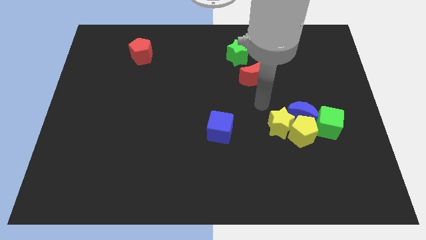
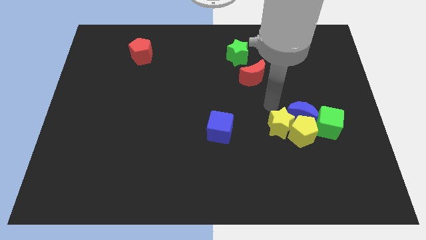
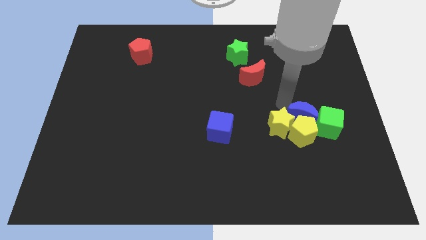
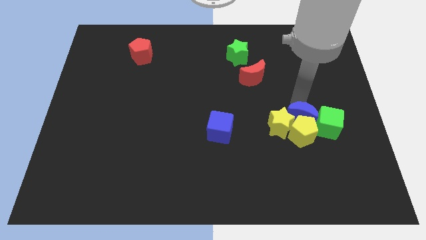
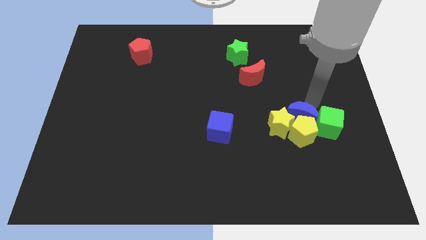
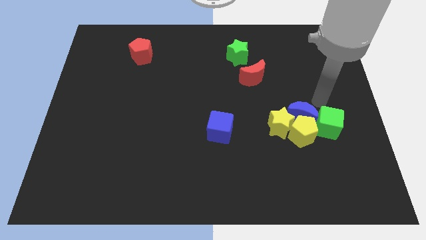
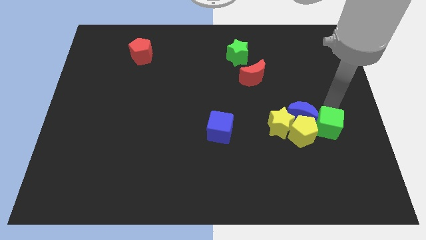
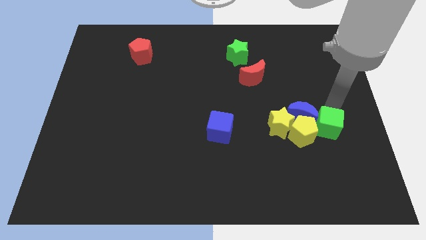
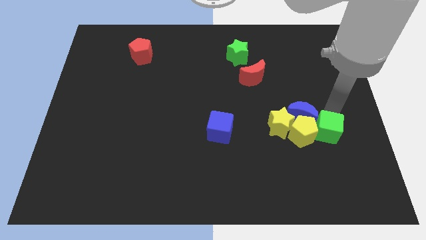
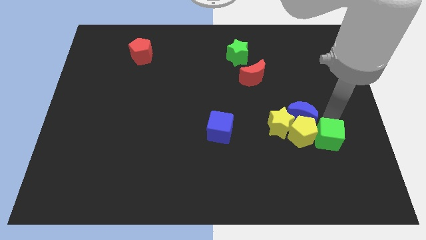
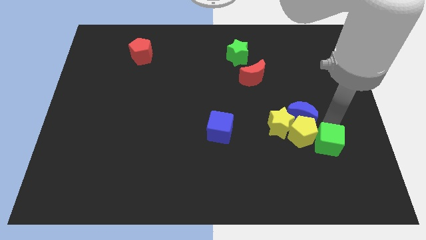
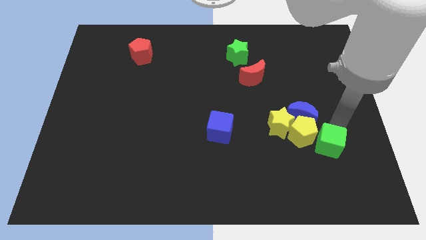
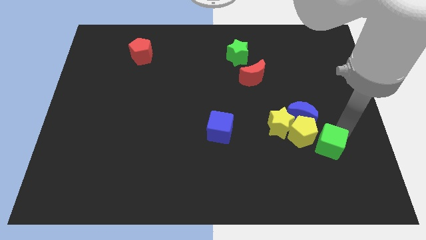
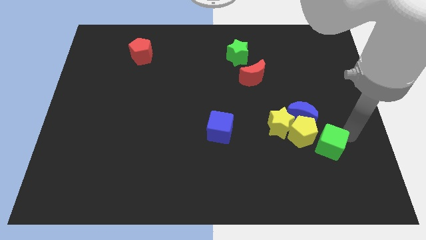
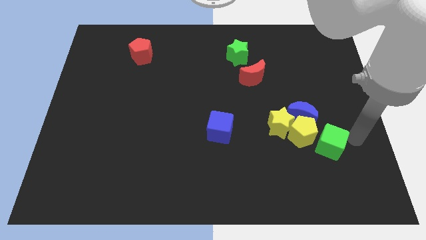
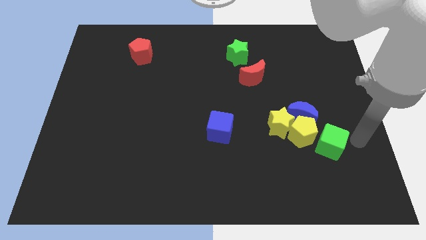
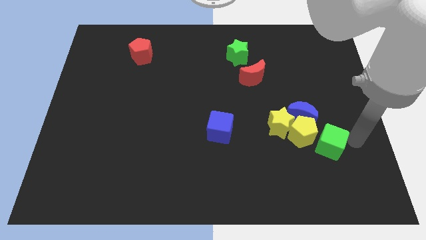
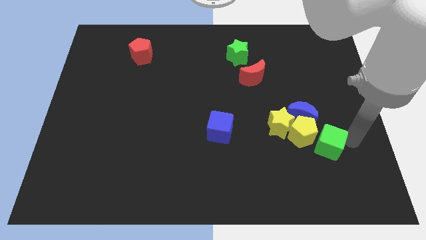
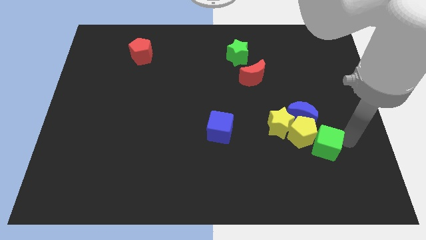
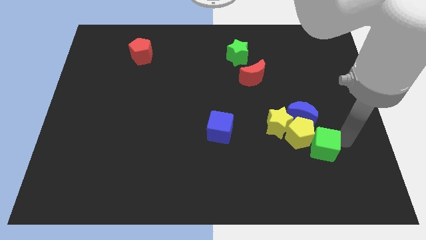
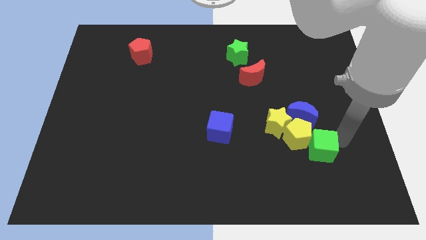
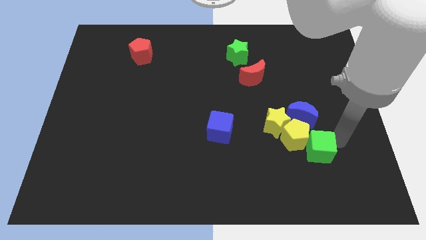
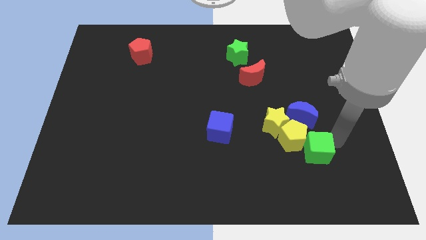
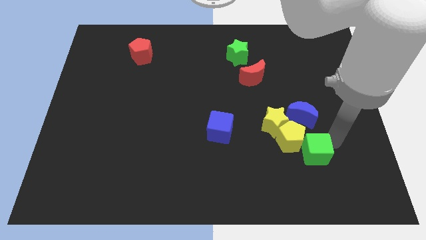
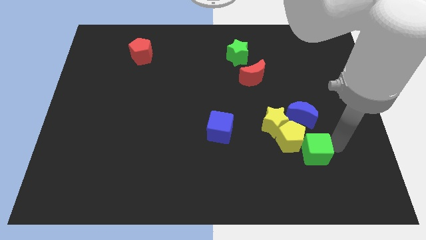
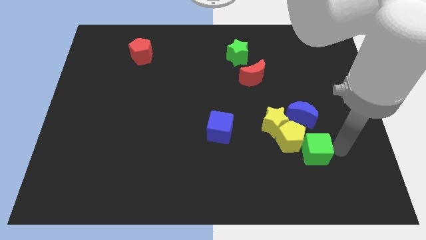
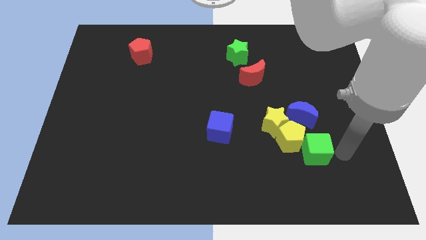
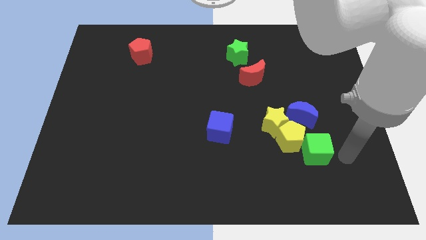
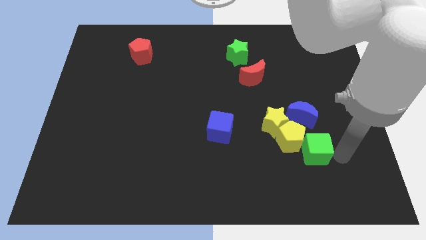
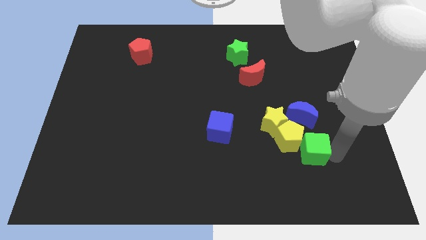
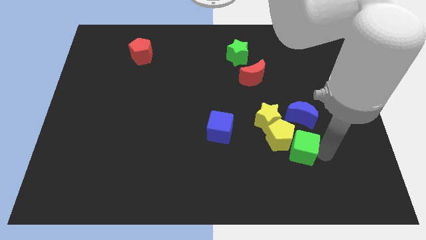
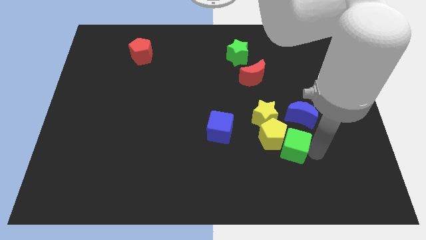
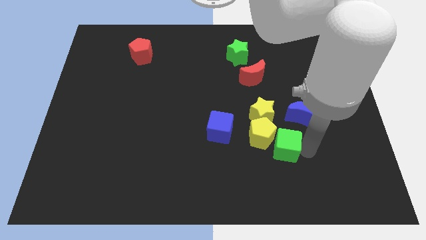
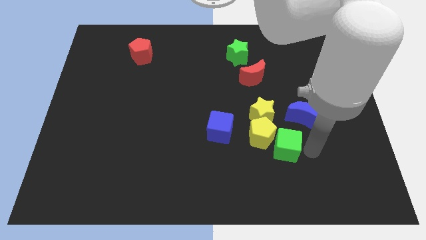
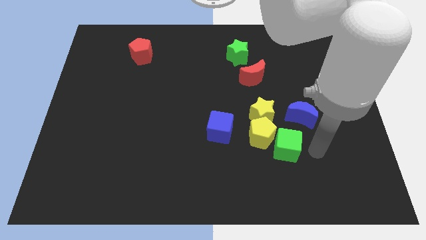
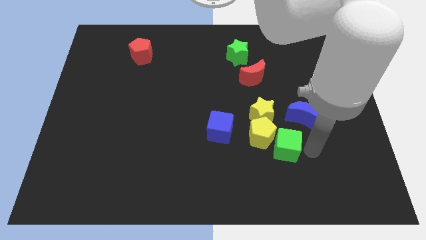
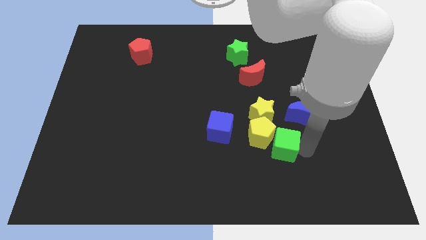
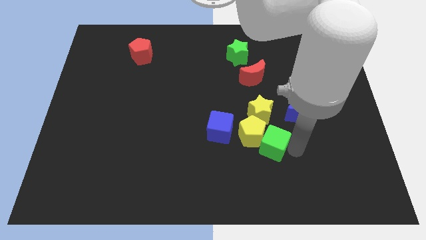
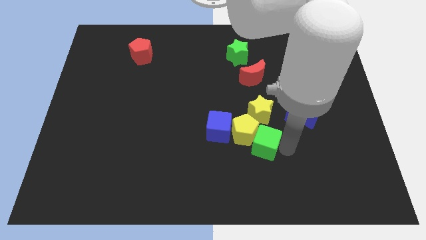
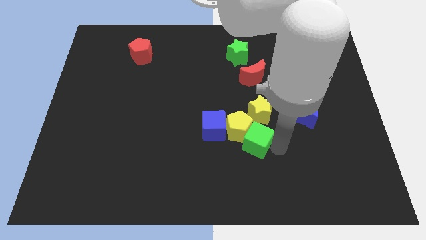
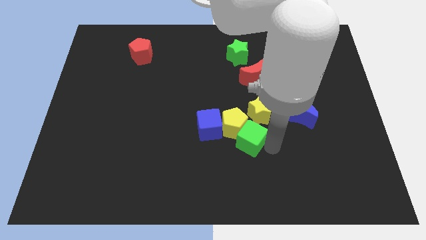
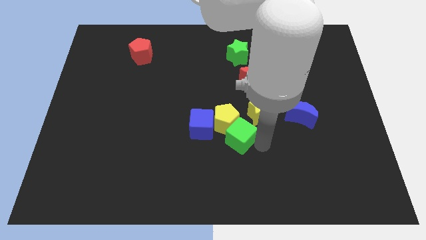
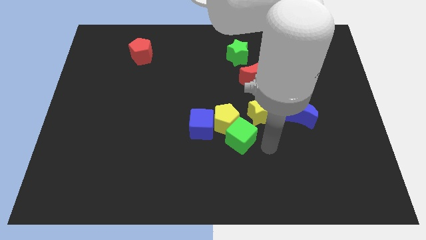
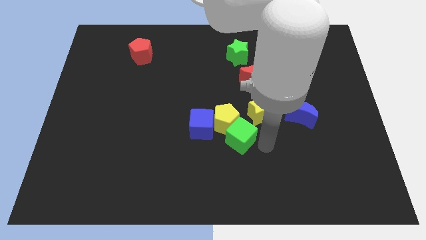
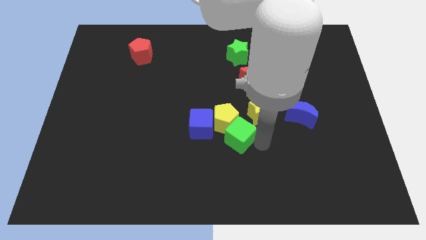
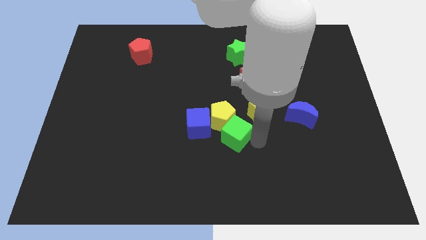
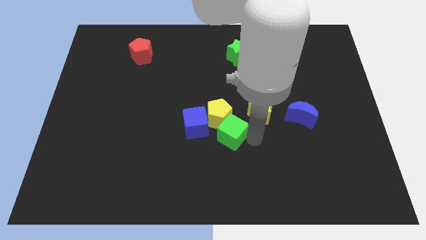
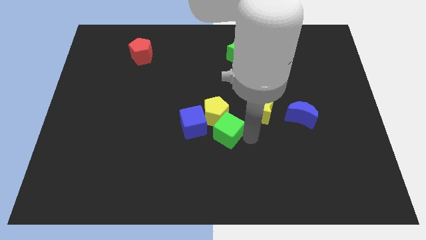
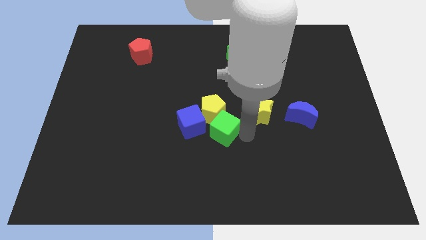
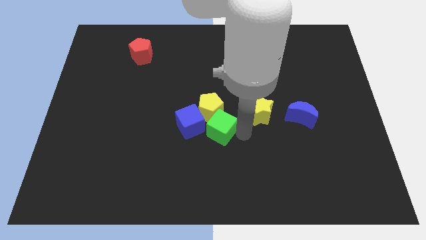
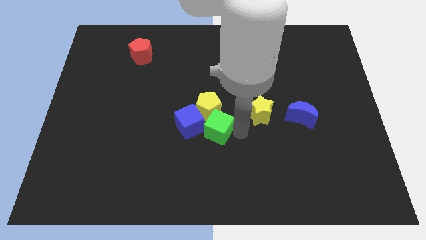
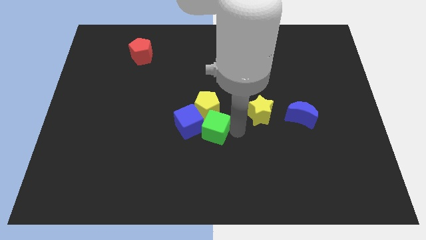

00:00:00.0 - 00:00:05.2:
put the green cube next to the blue cube

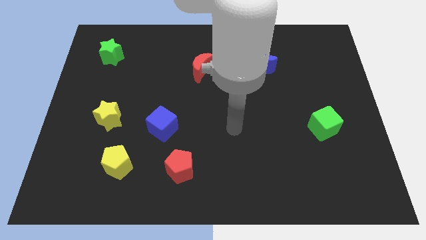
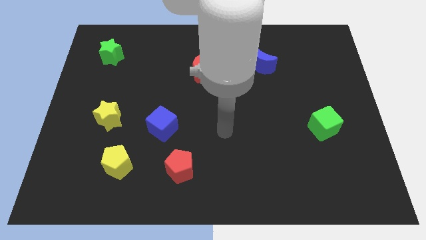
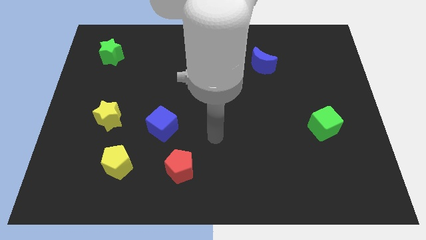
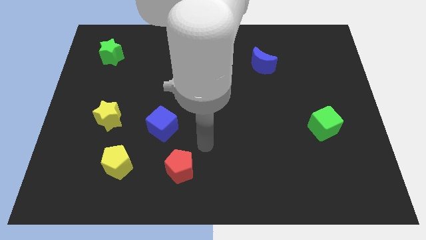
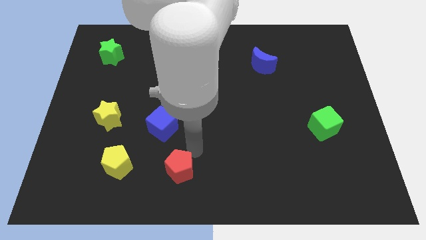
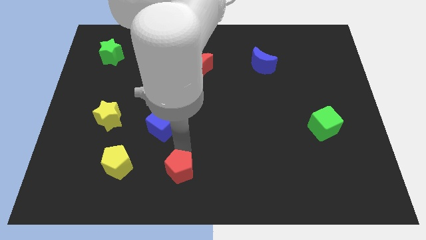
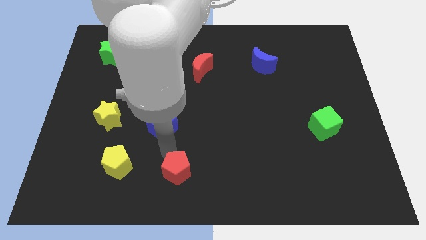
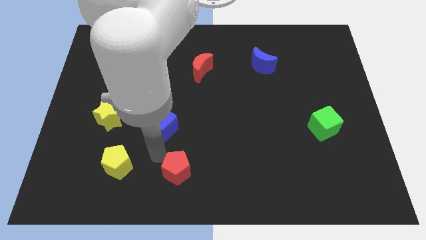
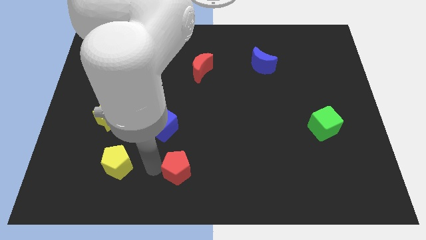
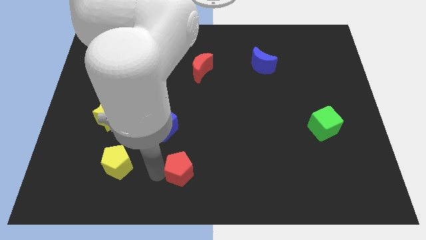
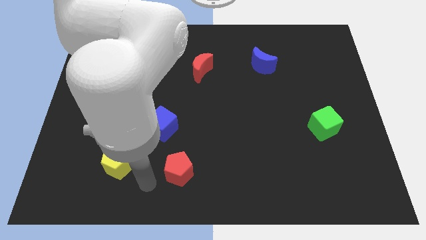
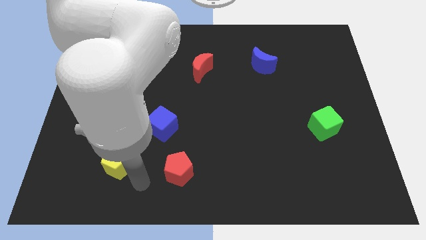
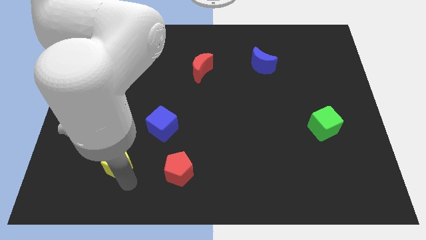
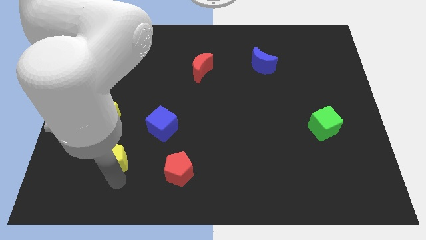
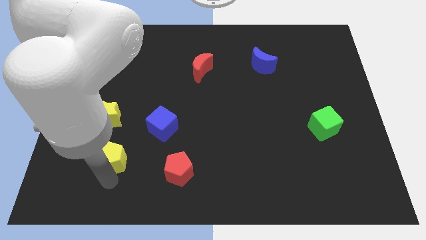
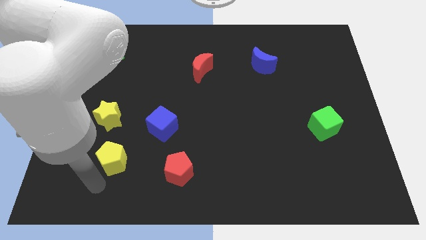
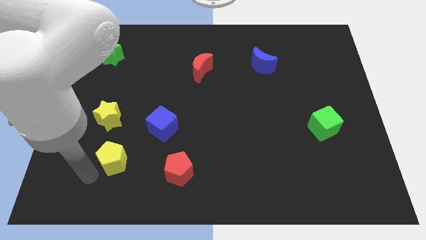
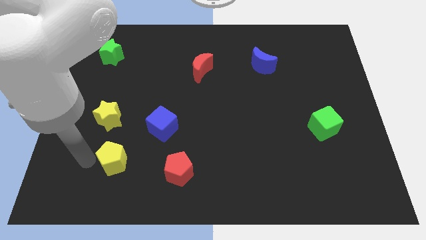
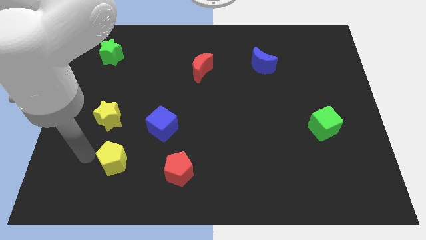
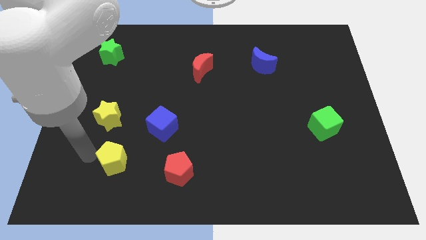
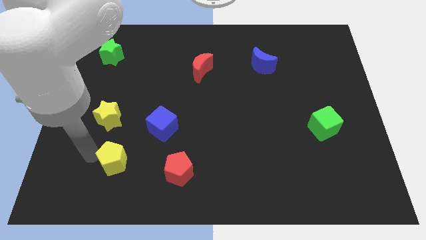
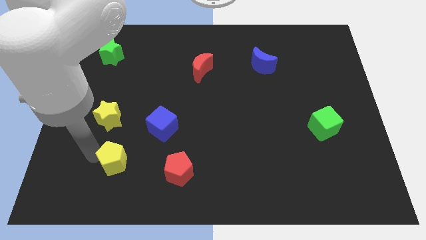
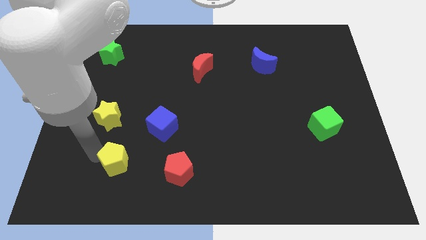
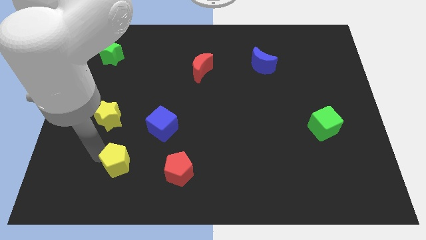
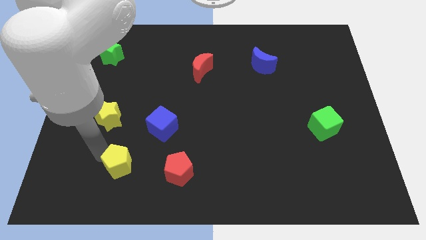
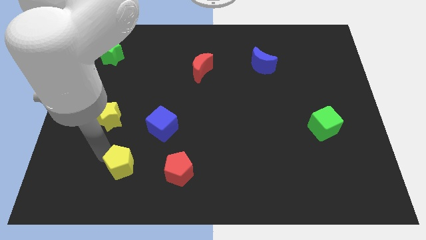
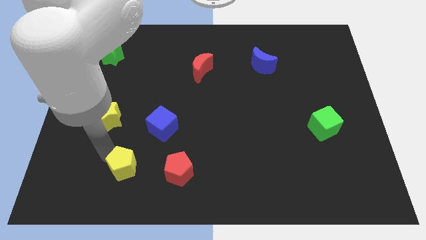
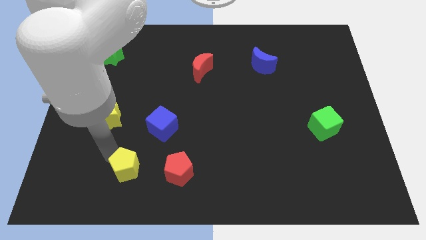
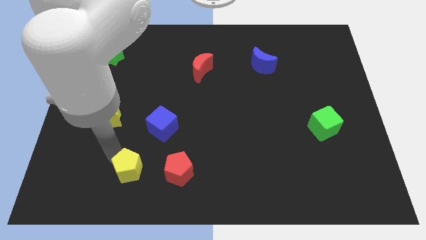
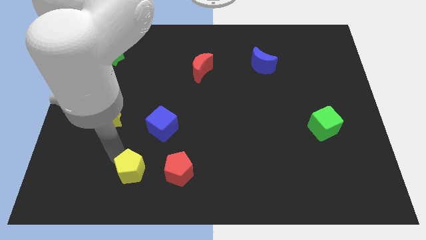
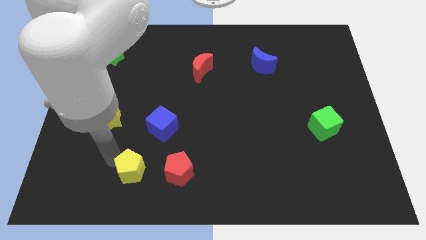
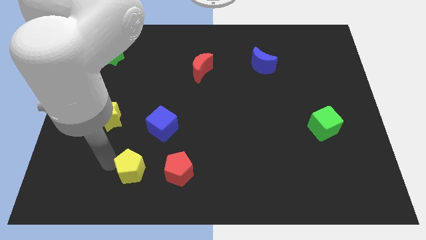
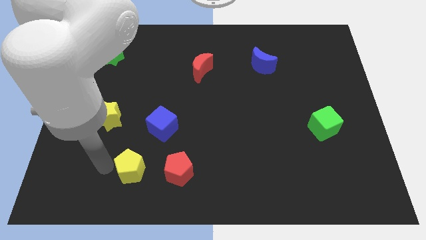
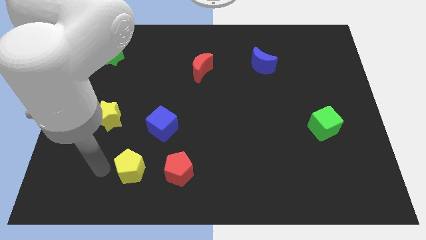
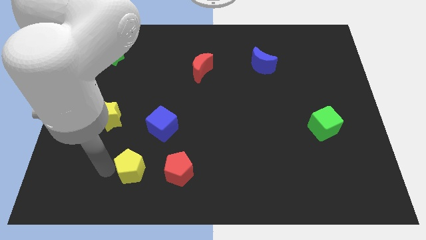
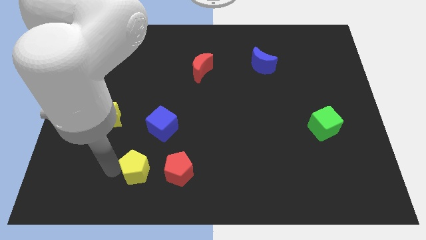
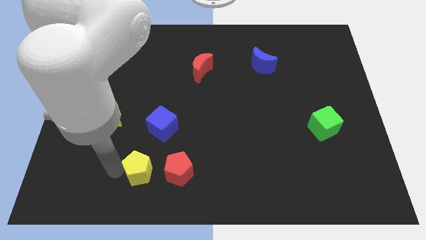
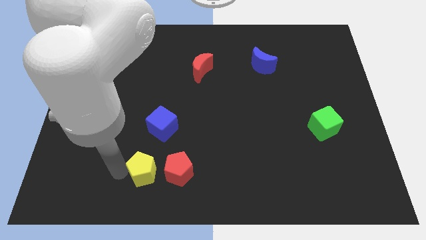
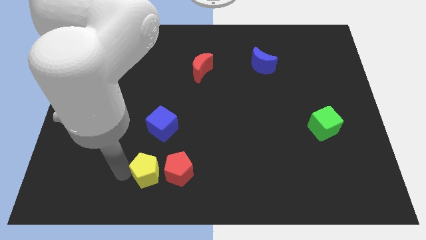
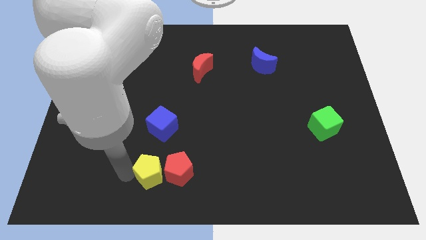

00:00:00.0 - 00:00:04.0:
slide the yellow pentagon towards the red pentagon
